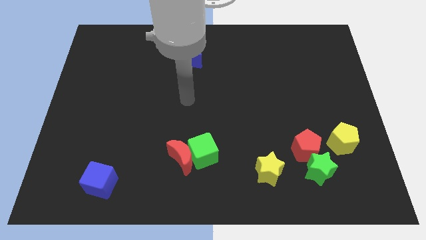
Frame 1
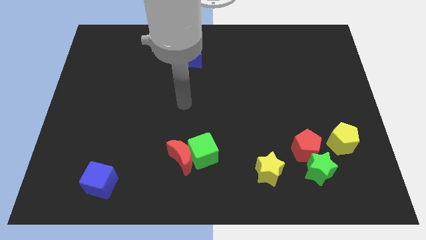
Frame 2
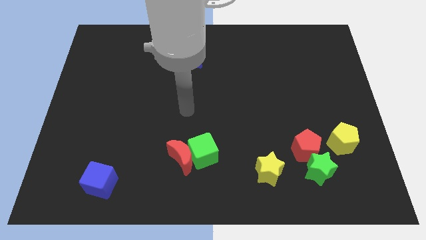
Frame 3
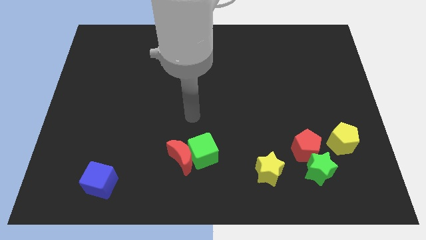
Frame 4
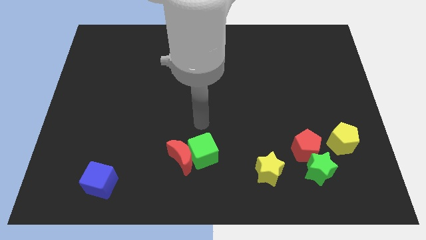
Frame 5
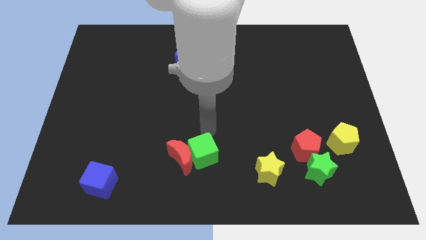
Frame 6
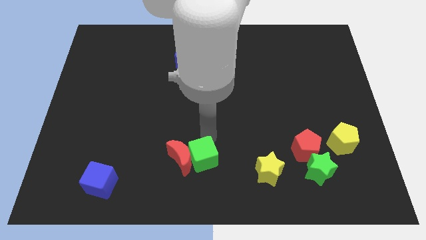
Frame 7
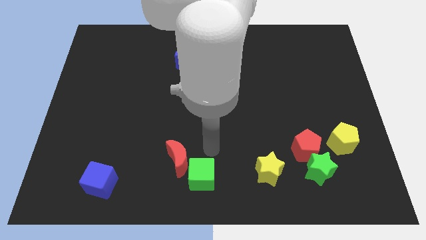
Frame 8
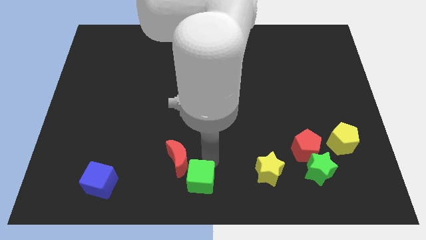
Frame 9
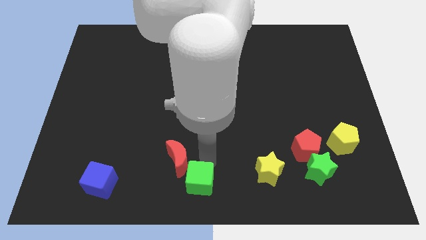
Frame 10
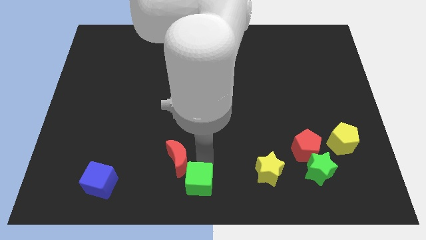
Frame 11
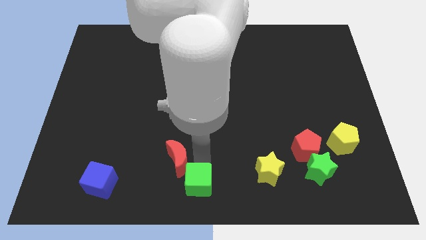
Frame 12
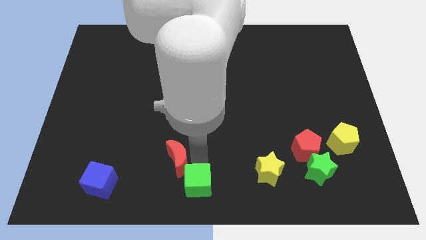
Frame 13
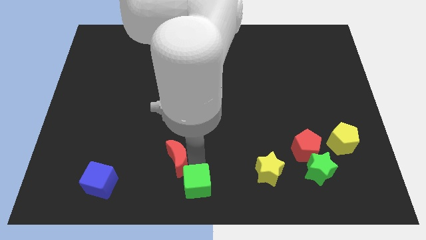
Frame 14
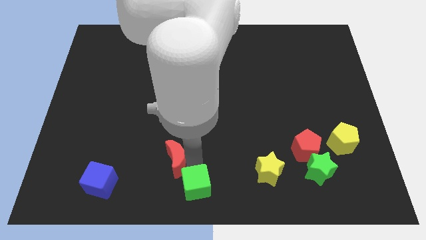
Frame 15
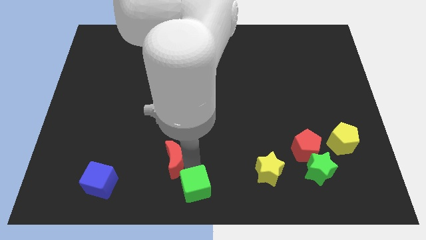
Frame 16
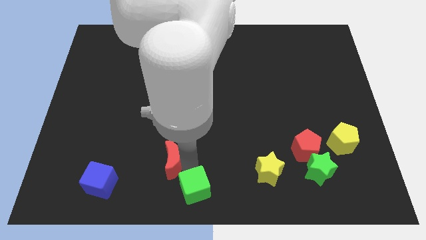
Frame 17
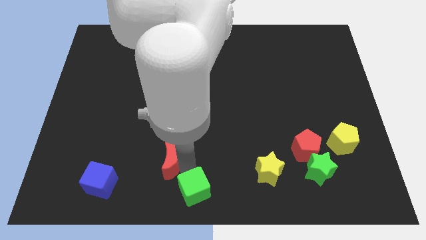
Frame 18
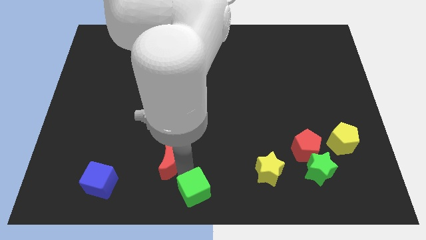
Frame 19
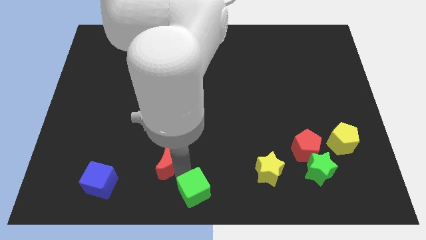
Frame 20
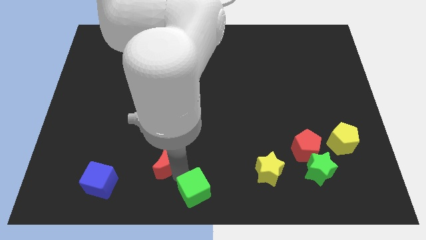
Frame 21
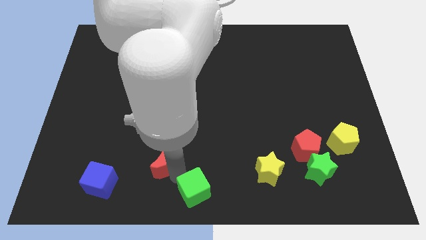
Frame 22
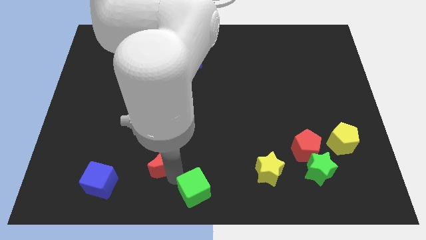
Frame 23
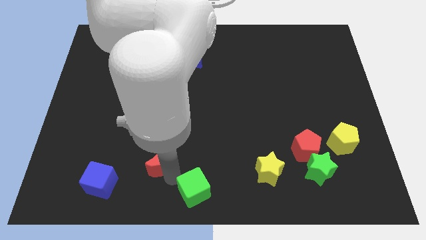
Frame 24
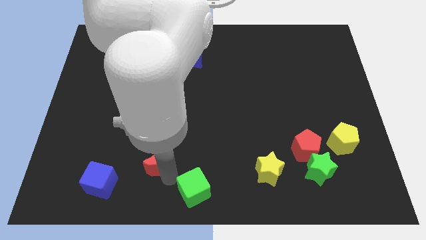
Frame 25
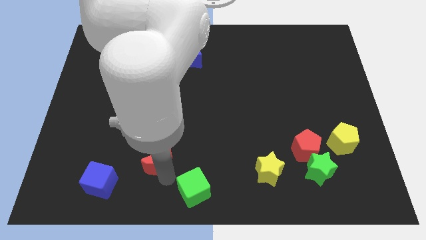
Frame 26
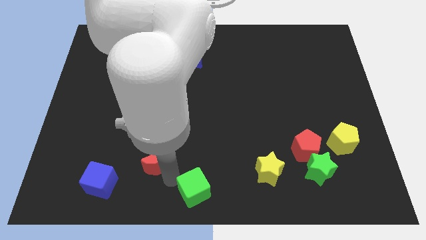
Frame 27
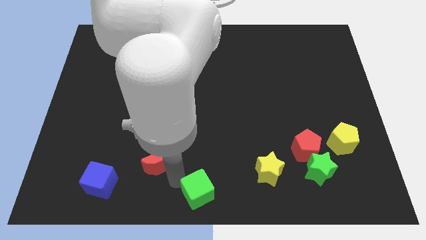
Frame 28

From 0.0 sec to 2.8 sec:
move the red moon away from the green cube

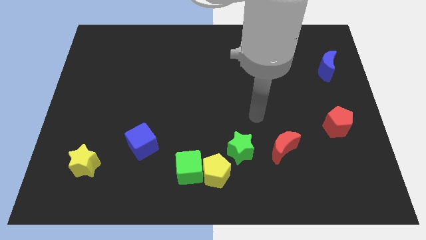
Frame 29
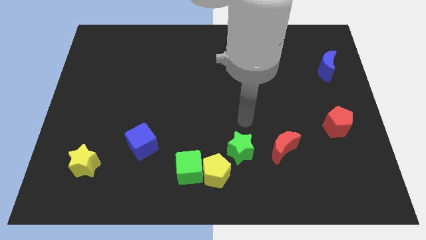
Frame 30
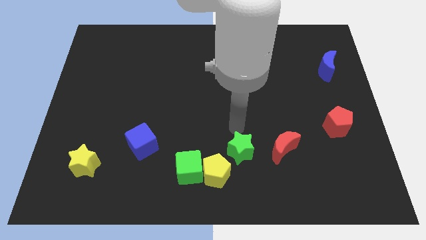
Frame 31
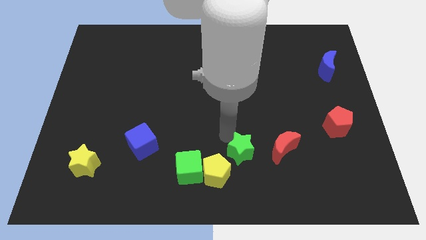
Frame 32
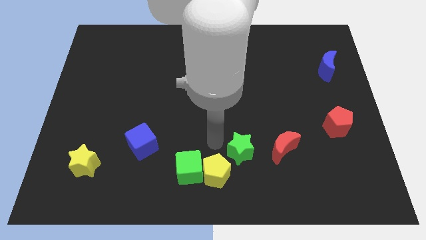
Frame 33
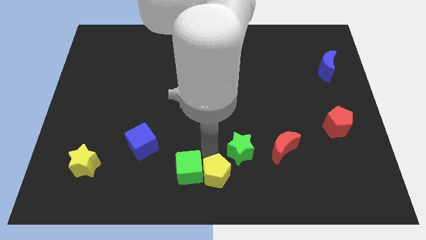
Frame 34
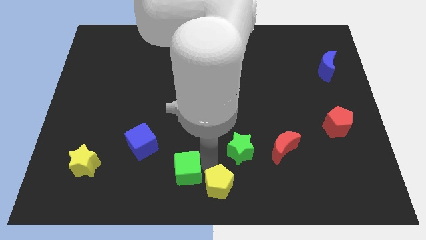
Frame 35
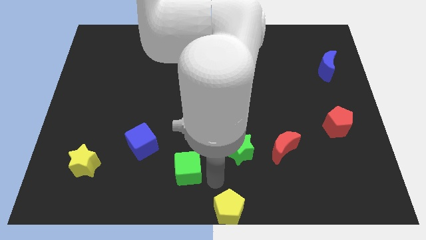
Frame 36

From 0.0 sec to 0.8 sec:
move the green cube away from the yellow pentagon

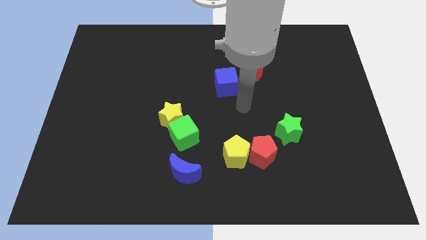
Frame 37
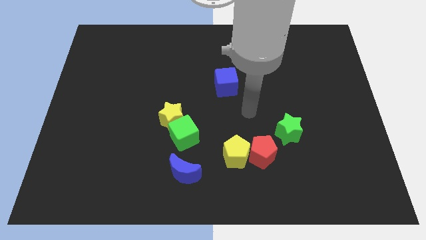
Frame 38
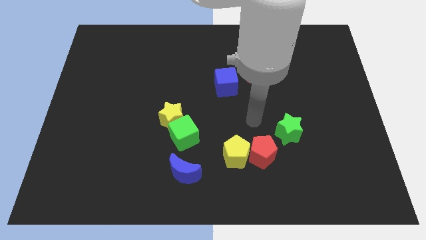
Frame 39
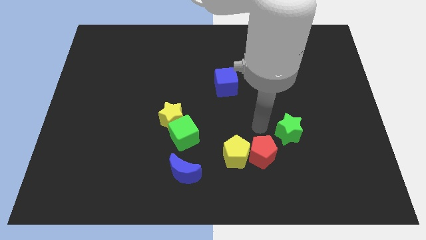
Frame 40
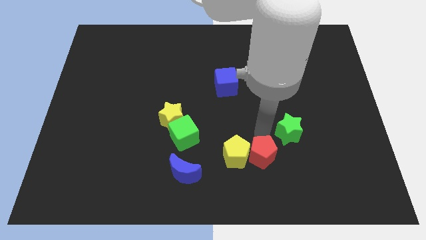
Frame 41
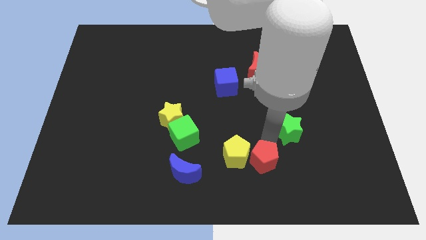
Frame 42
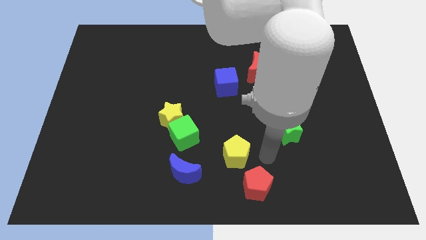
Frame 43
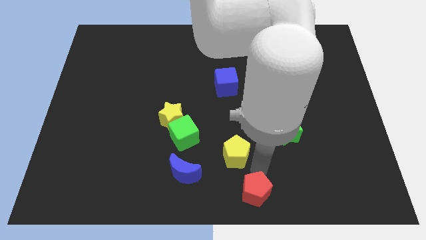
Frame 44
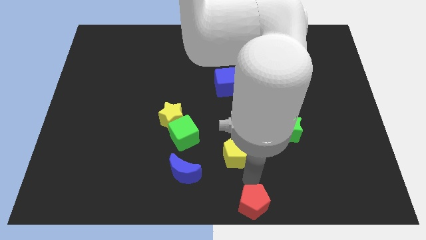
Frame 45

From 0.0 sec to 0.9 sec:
pull the yellow pentagon apart from the red pentagon

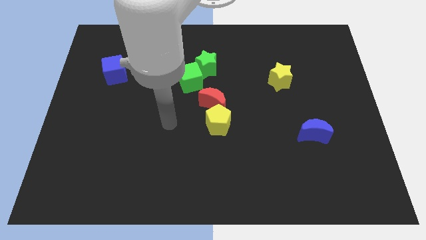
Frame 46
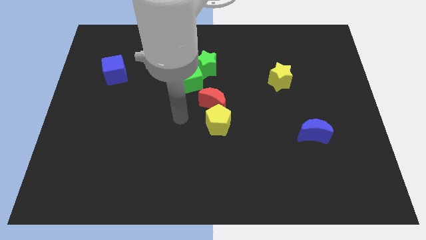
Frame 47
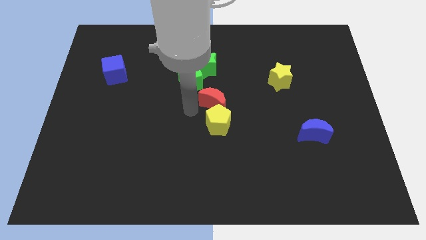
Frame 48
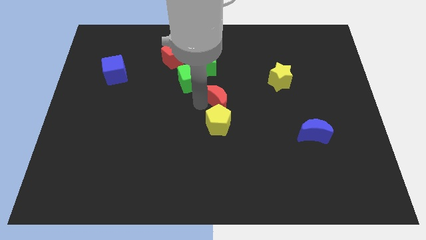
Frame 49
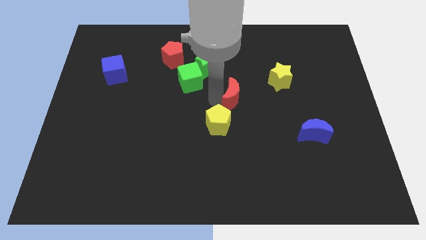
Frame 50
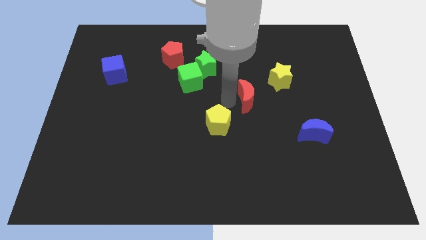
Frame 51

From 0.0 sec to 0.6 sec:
pull the yellow pentagon apart from the red moon

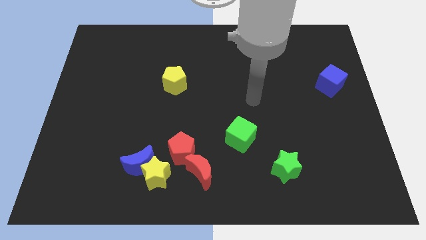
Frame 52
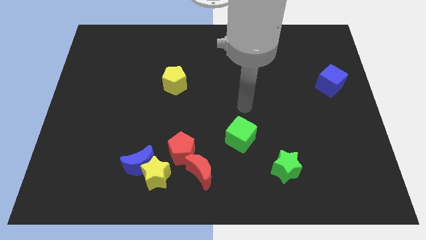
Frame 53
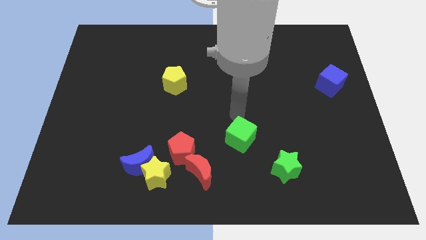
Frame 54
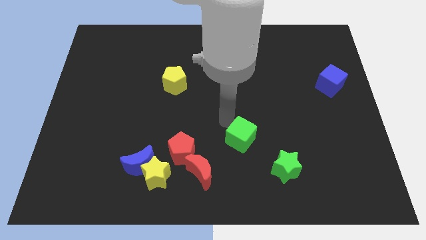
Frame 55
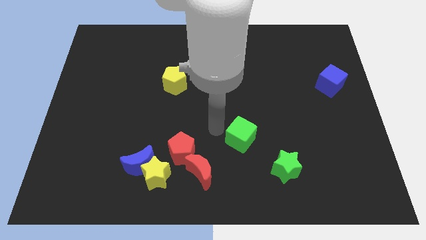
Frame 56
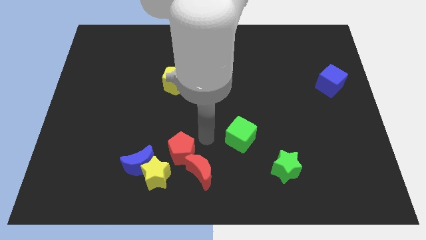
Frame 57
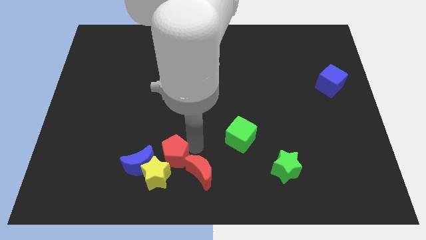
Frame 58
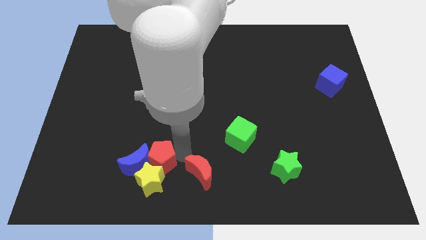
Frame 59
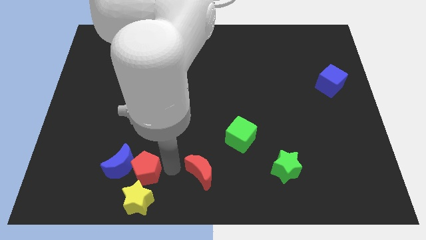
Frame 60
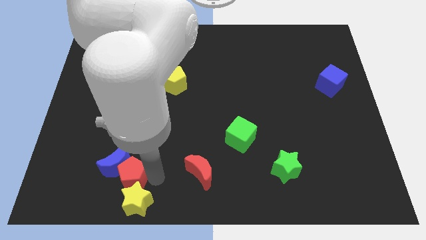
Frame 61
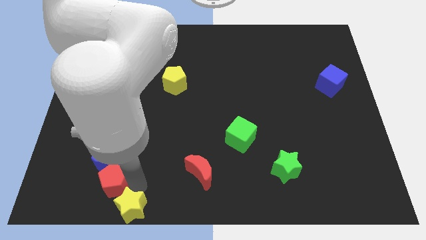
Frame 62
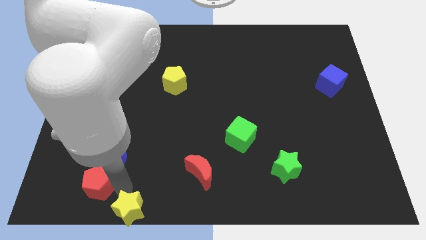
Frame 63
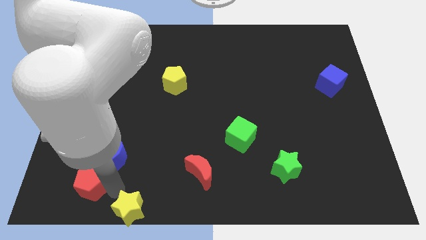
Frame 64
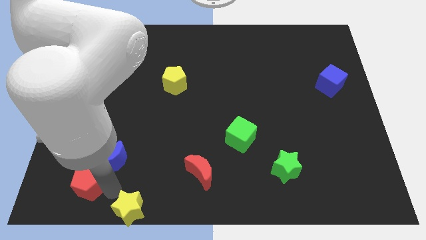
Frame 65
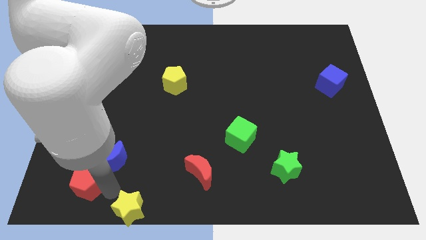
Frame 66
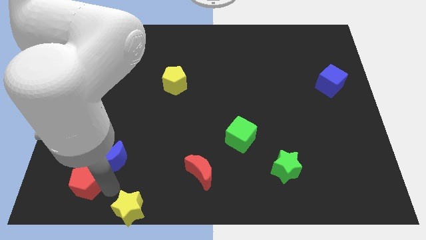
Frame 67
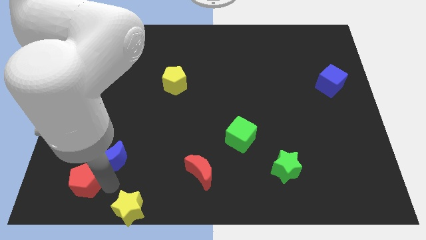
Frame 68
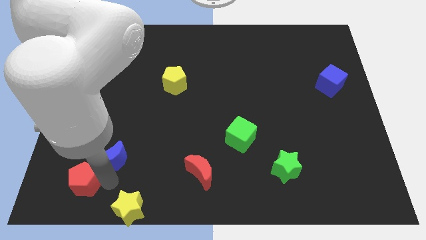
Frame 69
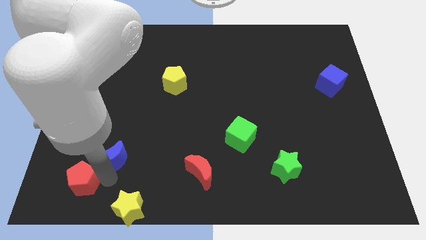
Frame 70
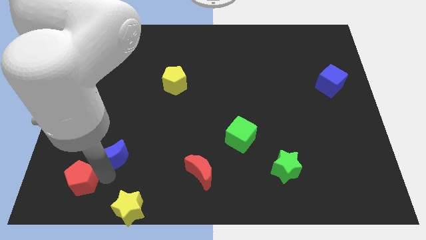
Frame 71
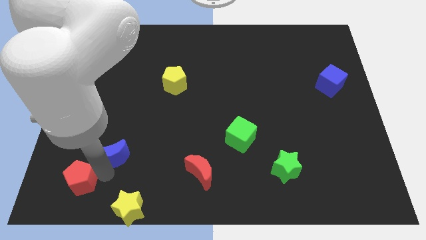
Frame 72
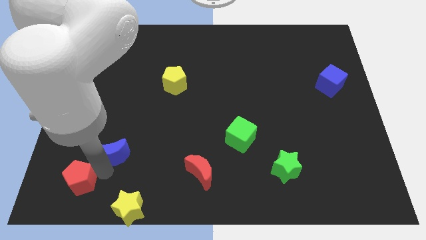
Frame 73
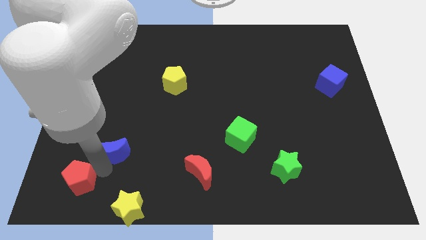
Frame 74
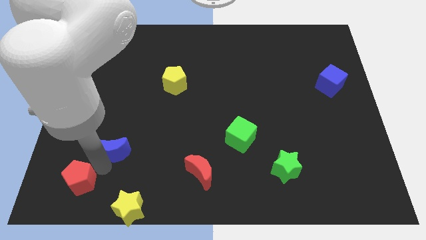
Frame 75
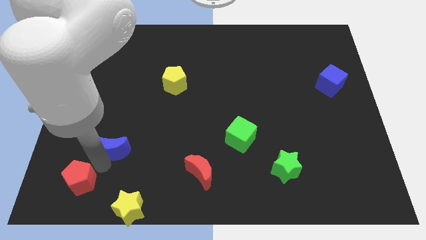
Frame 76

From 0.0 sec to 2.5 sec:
move the blue moon away from the yellow star and red pentagon

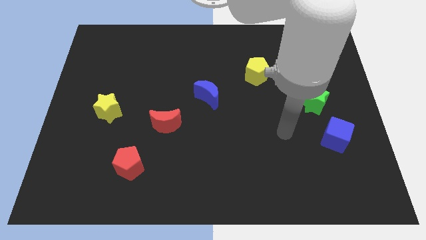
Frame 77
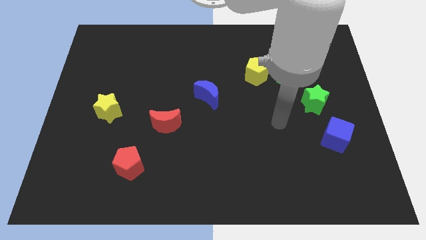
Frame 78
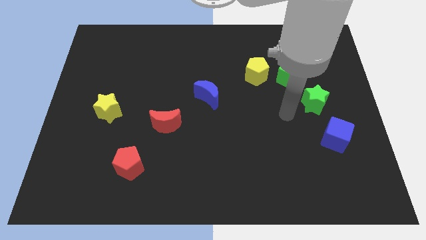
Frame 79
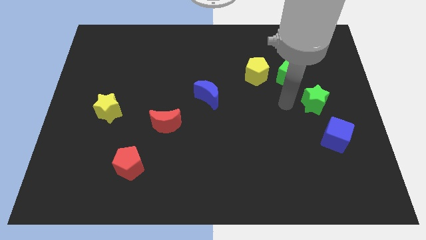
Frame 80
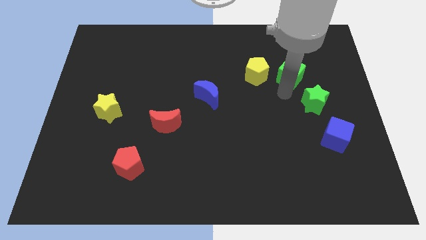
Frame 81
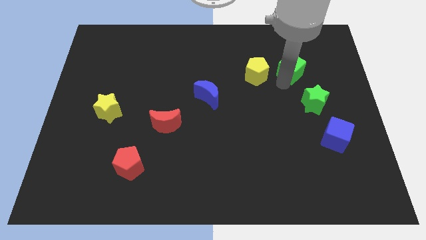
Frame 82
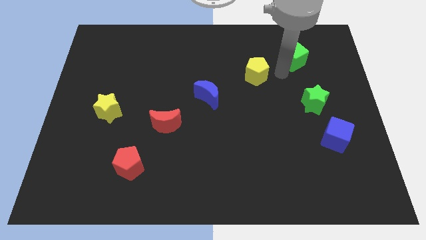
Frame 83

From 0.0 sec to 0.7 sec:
separate the yellow pentagon from the green cube

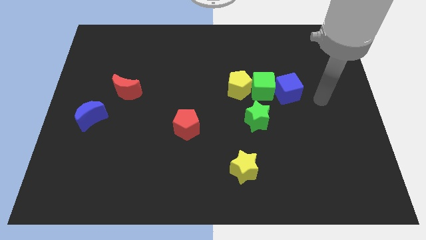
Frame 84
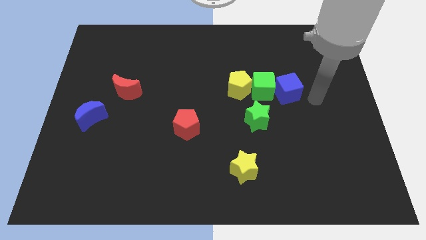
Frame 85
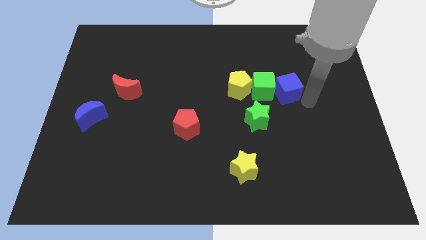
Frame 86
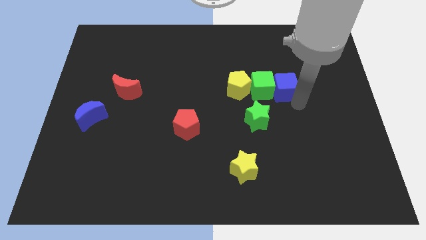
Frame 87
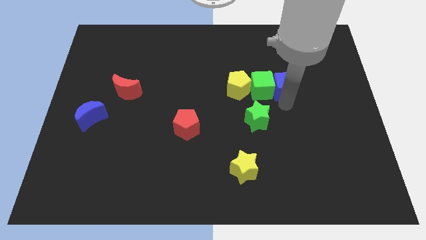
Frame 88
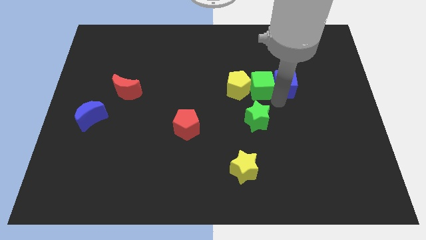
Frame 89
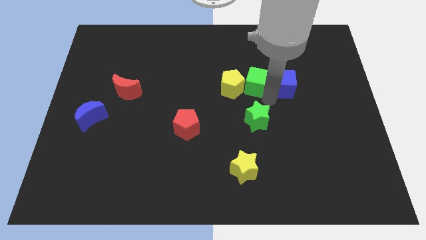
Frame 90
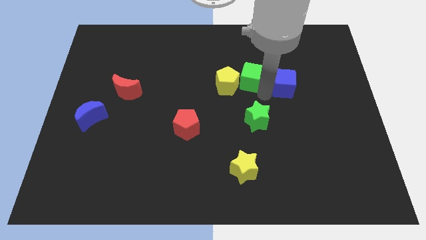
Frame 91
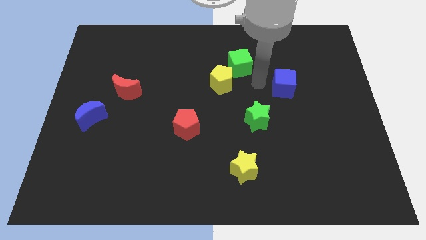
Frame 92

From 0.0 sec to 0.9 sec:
pull the blue cube apart from the green cube

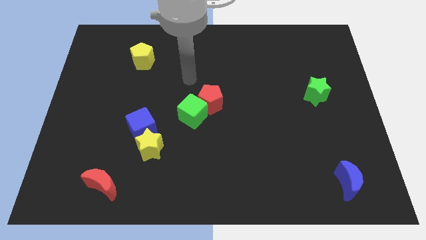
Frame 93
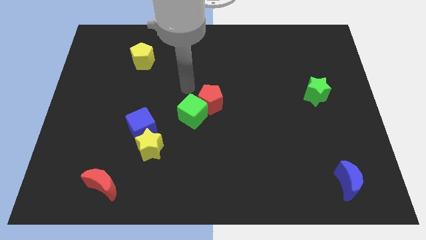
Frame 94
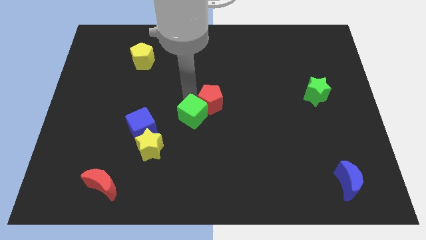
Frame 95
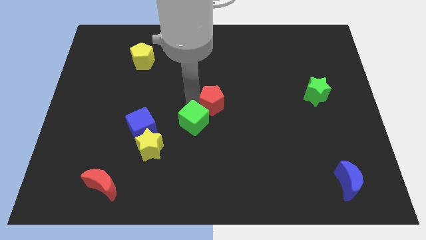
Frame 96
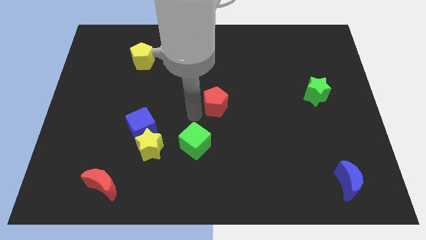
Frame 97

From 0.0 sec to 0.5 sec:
separate the red pentagon from the green cube
